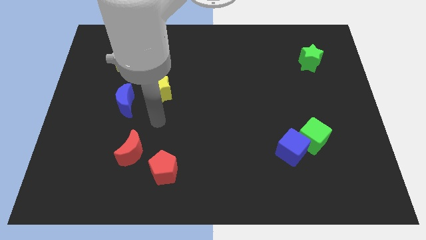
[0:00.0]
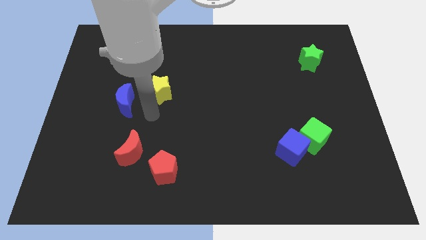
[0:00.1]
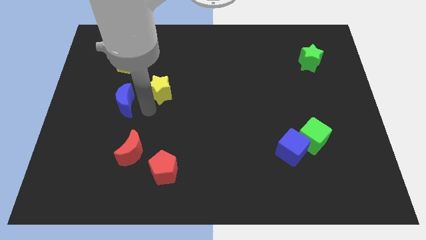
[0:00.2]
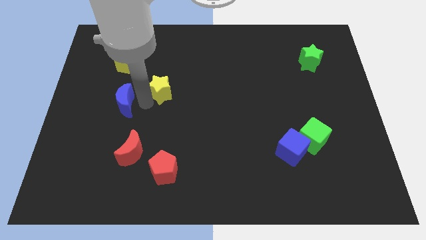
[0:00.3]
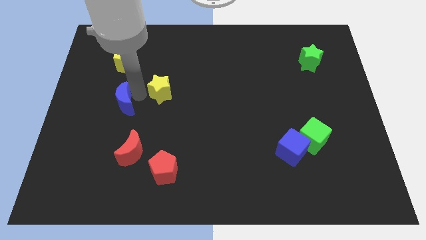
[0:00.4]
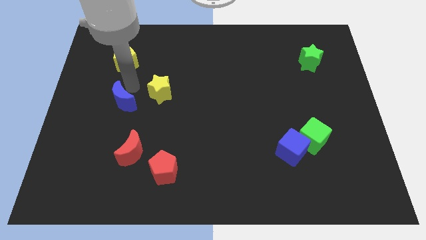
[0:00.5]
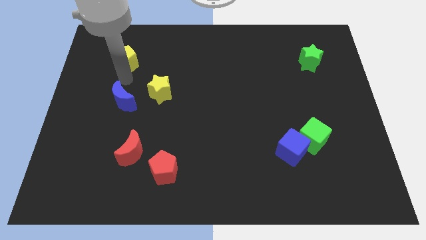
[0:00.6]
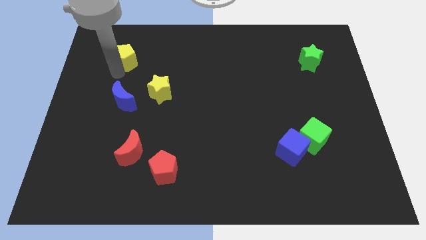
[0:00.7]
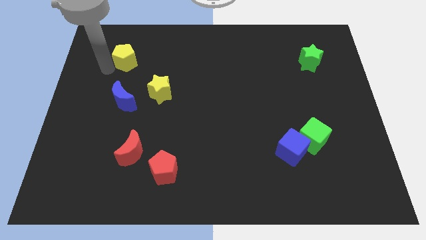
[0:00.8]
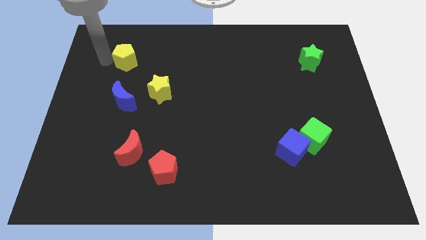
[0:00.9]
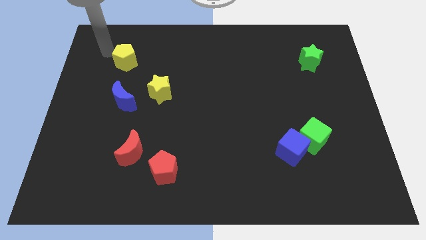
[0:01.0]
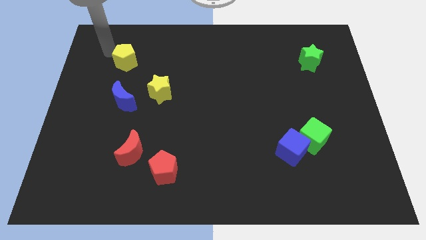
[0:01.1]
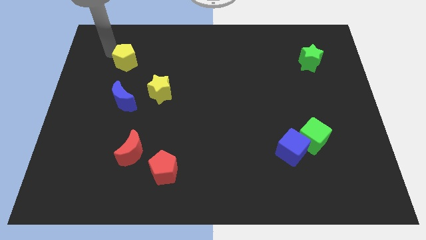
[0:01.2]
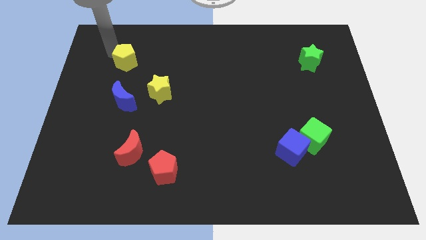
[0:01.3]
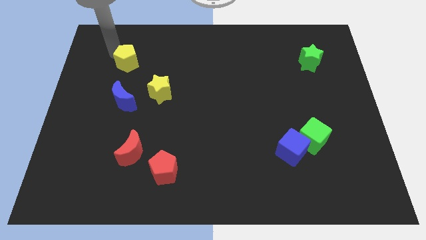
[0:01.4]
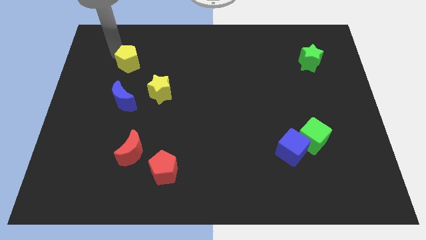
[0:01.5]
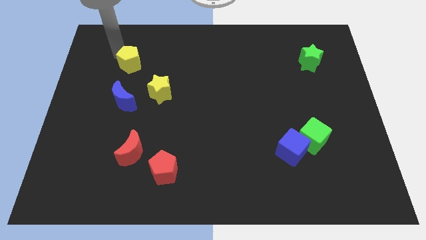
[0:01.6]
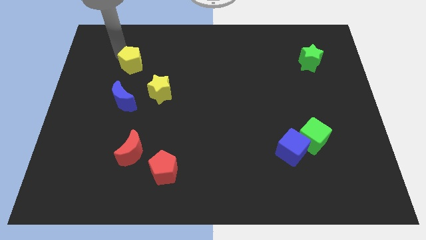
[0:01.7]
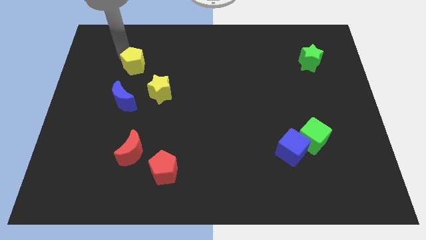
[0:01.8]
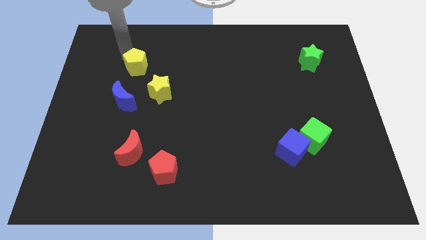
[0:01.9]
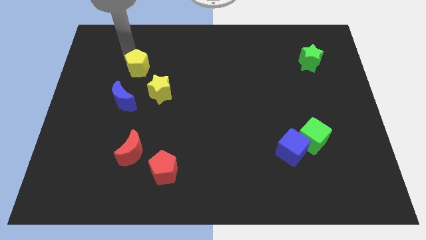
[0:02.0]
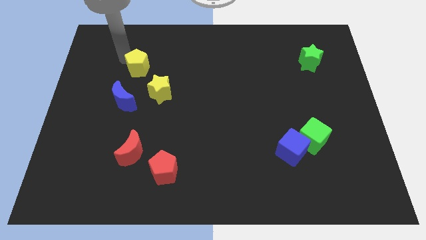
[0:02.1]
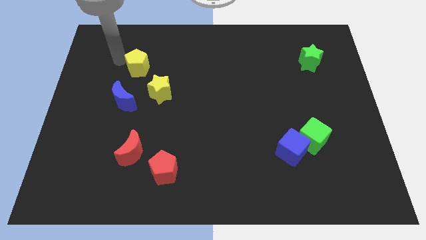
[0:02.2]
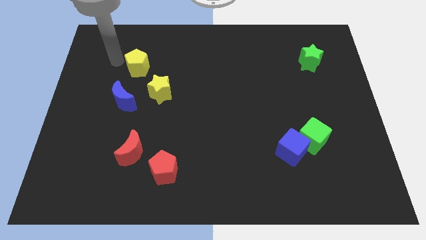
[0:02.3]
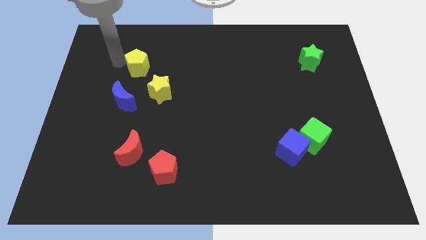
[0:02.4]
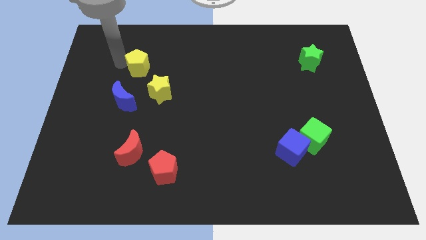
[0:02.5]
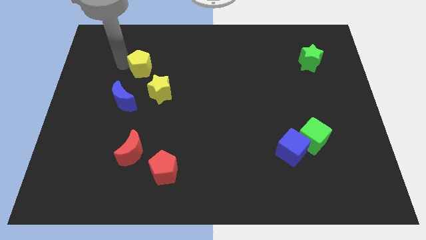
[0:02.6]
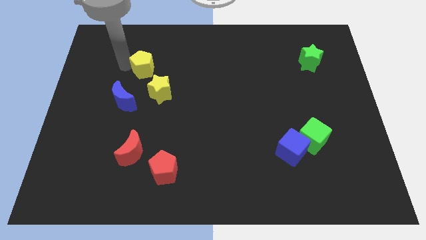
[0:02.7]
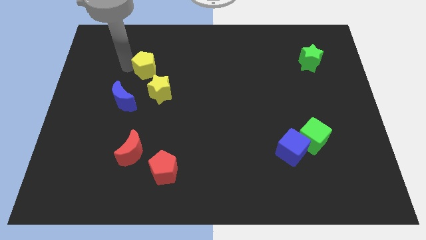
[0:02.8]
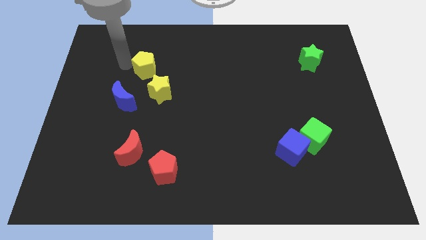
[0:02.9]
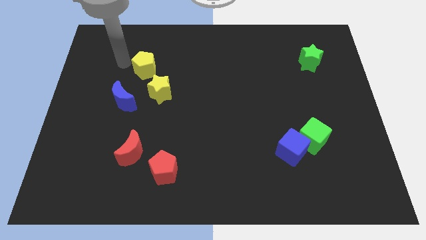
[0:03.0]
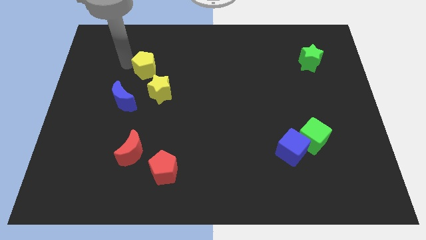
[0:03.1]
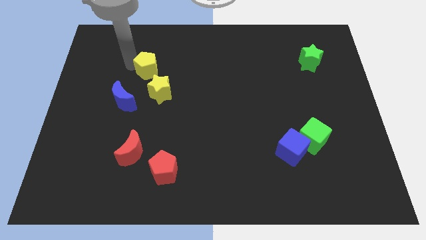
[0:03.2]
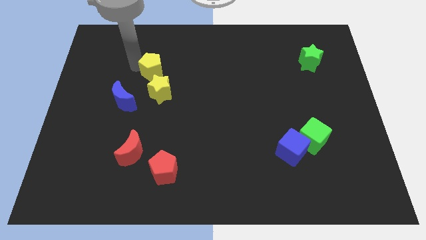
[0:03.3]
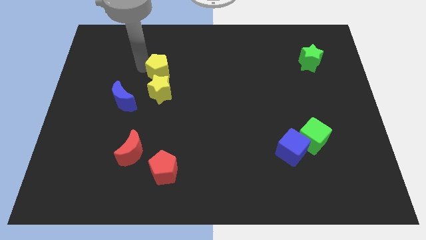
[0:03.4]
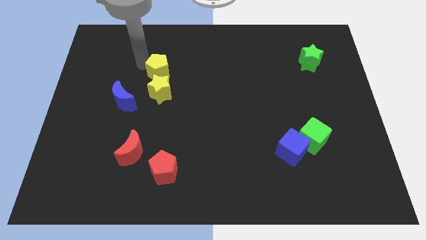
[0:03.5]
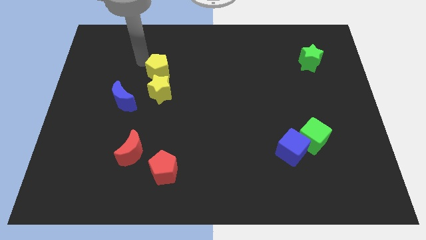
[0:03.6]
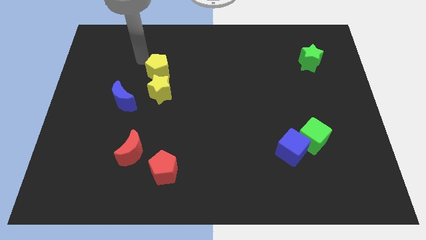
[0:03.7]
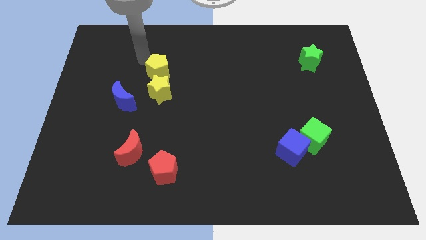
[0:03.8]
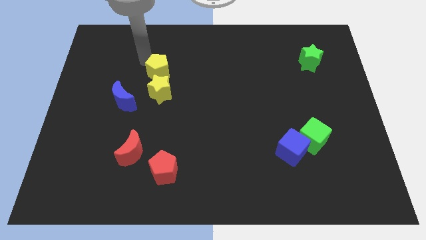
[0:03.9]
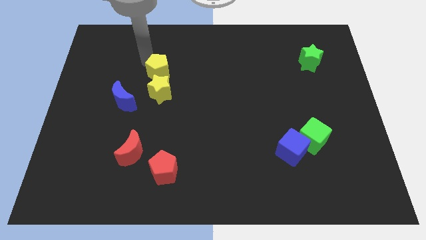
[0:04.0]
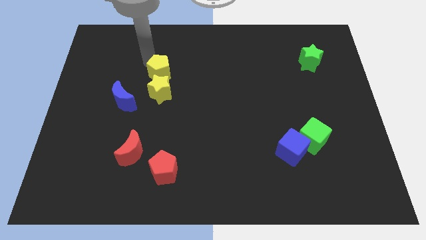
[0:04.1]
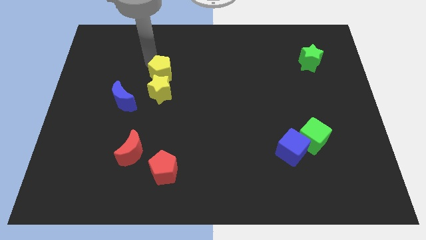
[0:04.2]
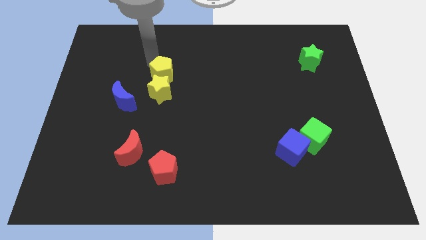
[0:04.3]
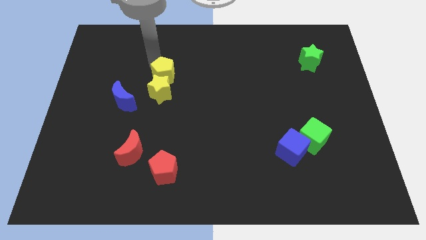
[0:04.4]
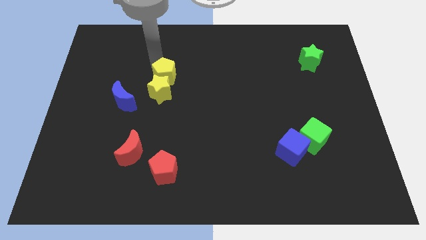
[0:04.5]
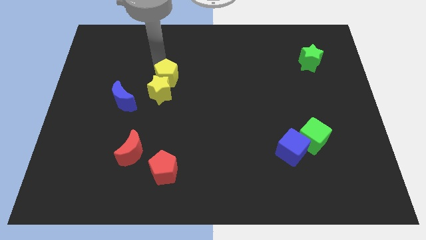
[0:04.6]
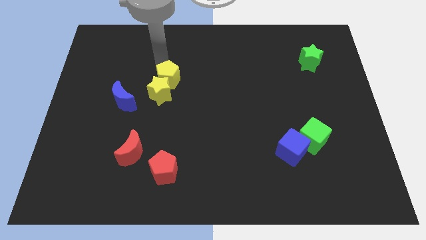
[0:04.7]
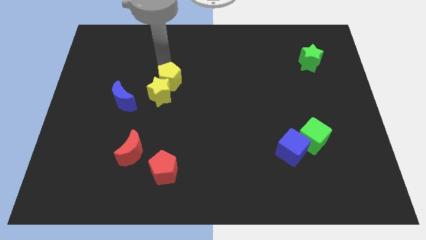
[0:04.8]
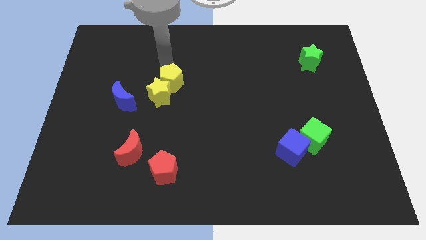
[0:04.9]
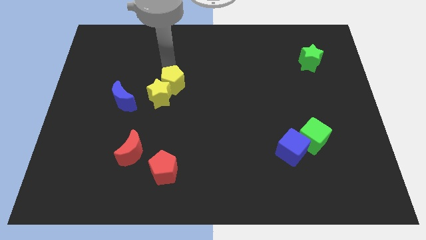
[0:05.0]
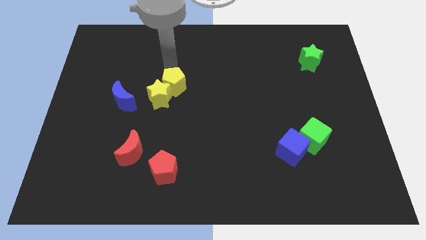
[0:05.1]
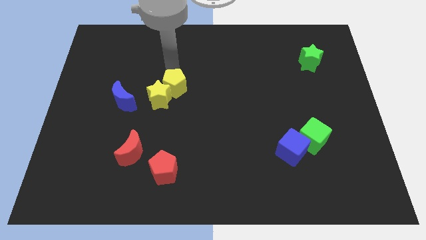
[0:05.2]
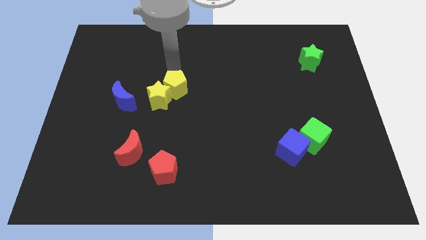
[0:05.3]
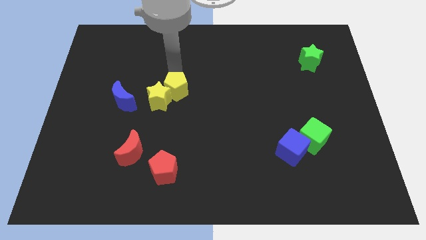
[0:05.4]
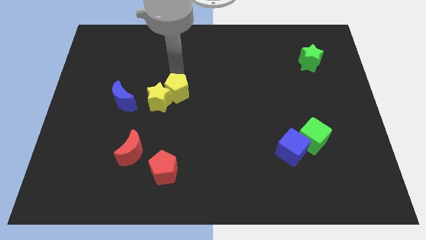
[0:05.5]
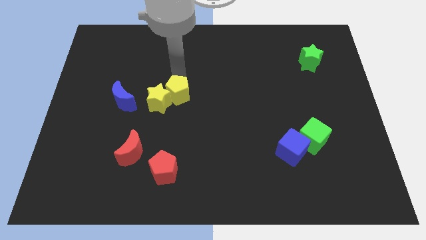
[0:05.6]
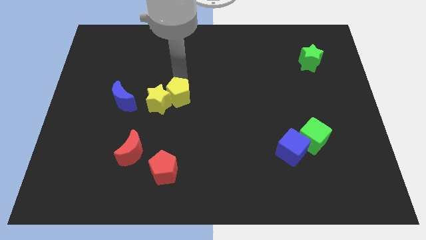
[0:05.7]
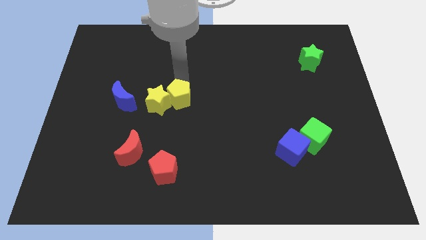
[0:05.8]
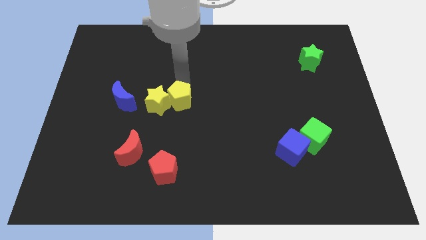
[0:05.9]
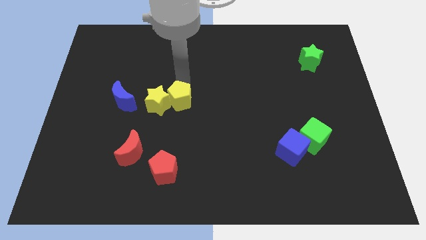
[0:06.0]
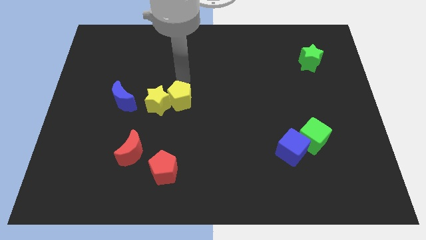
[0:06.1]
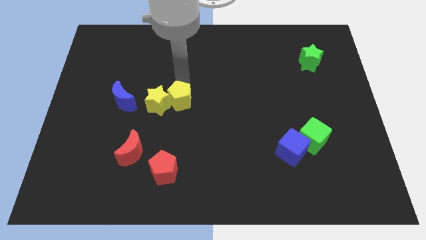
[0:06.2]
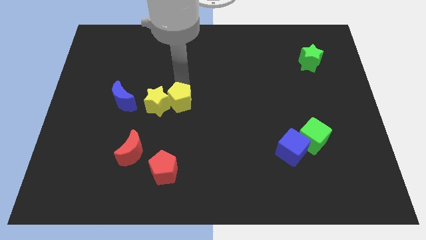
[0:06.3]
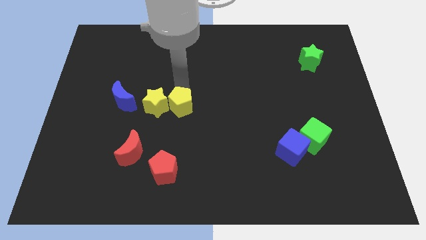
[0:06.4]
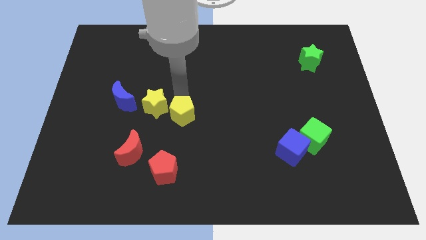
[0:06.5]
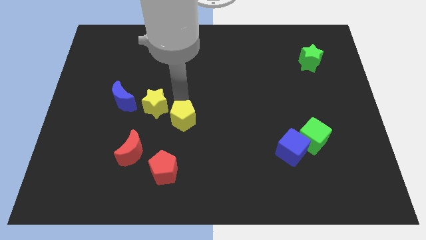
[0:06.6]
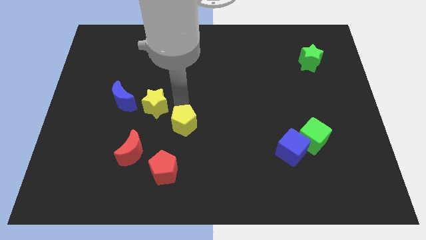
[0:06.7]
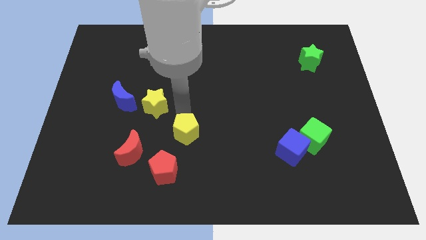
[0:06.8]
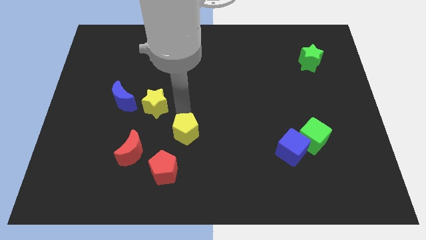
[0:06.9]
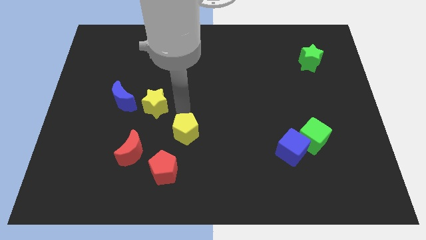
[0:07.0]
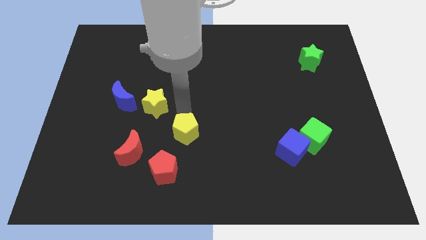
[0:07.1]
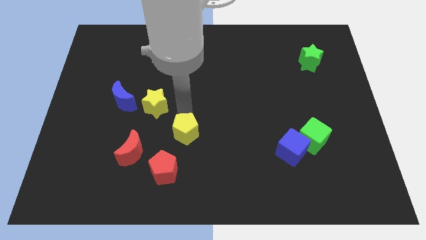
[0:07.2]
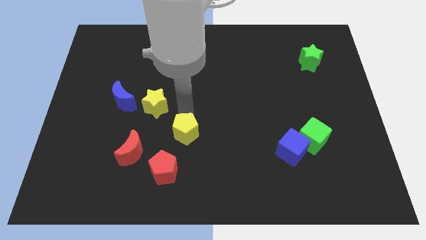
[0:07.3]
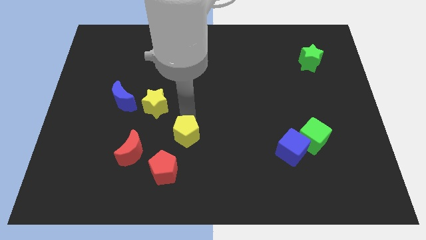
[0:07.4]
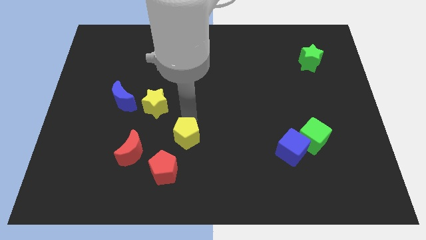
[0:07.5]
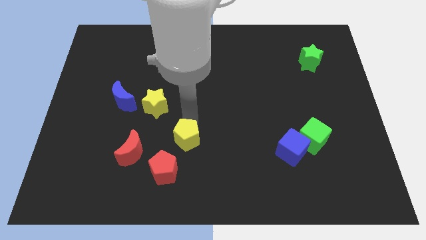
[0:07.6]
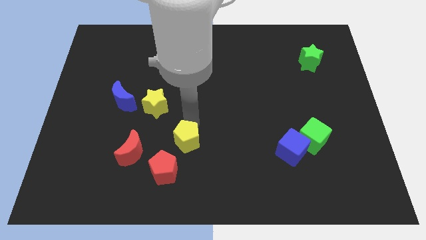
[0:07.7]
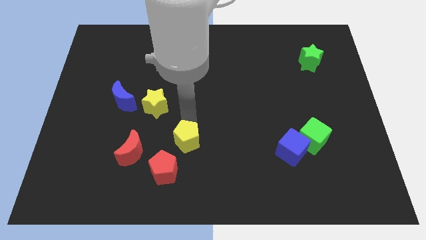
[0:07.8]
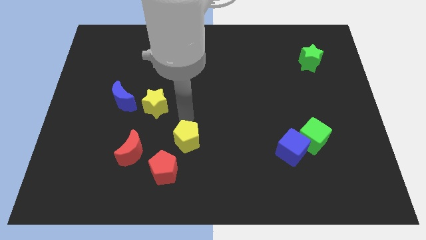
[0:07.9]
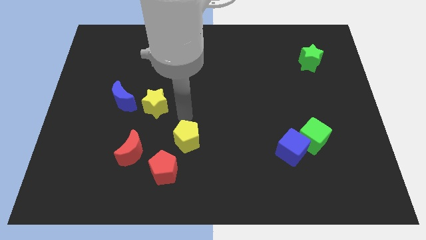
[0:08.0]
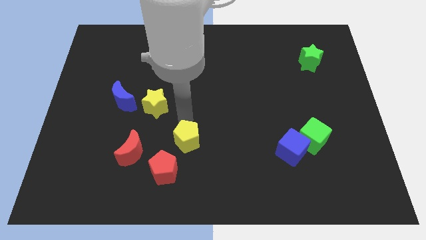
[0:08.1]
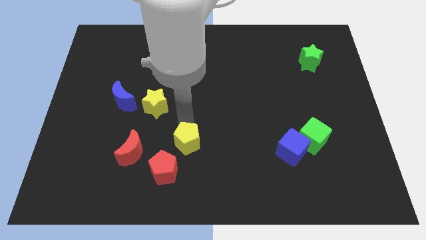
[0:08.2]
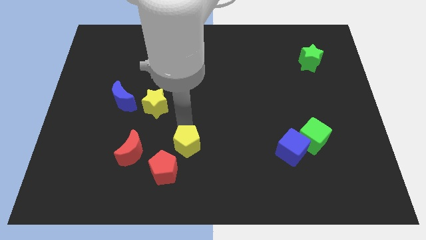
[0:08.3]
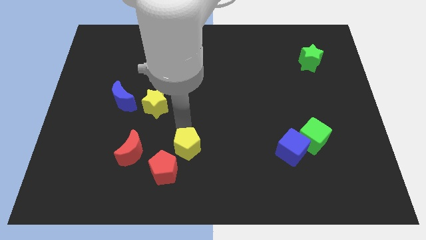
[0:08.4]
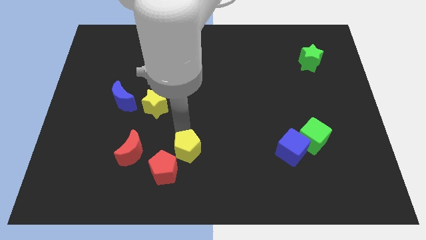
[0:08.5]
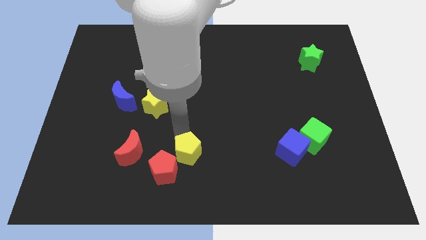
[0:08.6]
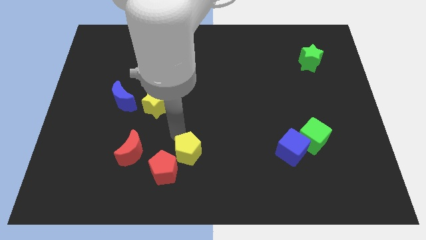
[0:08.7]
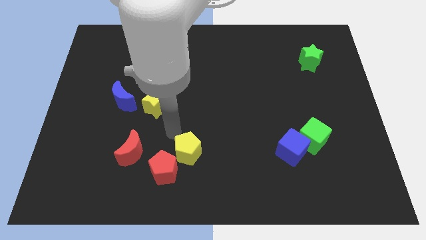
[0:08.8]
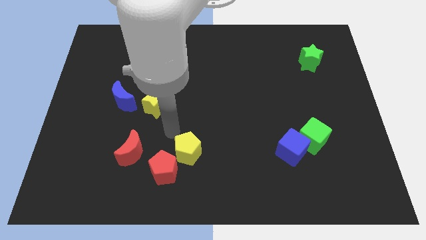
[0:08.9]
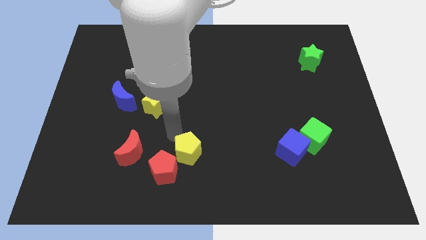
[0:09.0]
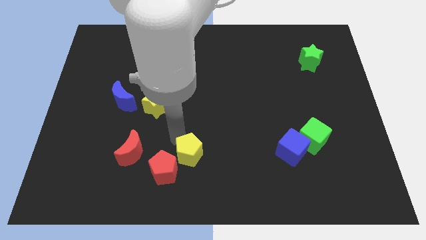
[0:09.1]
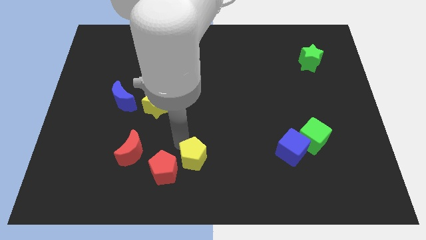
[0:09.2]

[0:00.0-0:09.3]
move the yellow pentagon to the bottom
